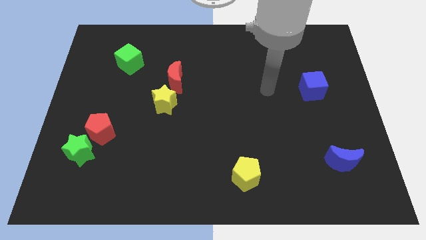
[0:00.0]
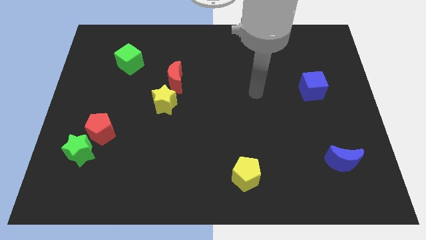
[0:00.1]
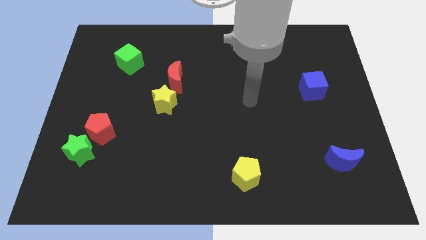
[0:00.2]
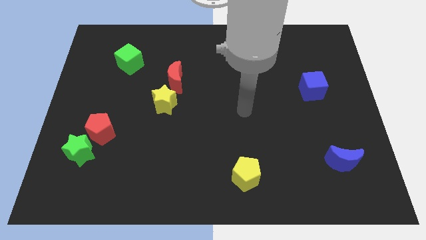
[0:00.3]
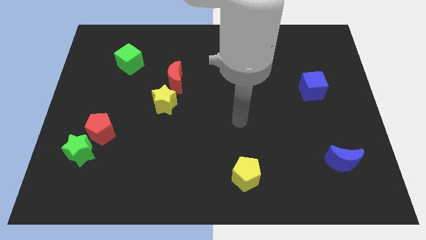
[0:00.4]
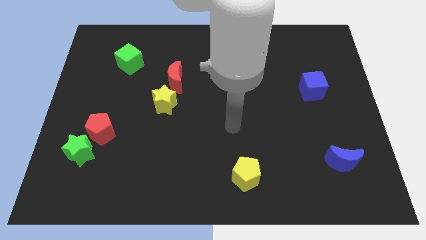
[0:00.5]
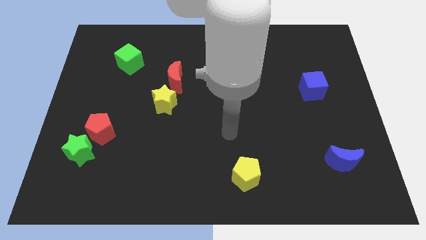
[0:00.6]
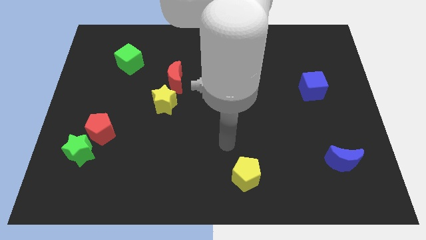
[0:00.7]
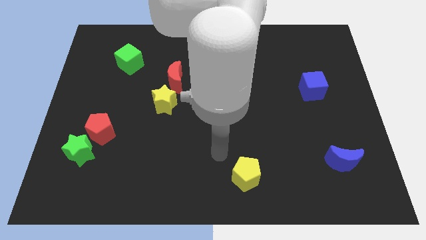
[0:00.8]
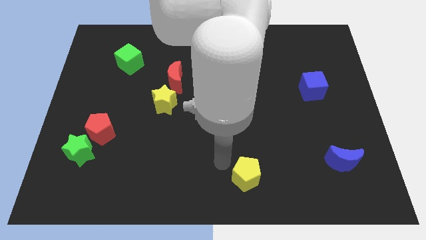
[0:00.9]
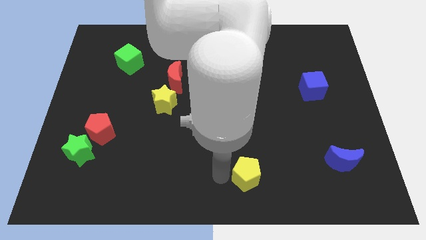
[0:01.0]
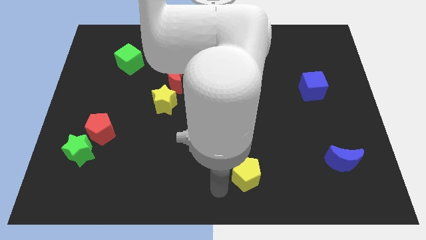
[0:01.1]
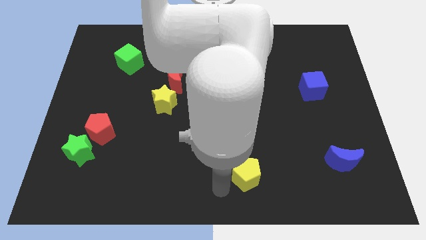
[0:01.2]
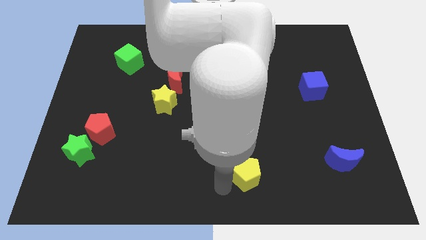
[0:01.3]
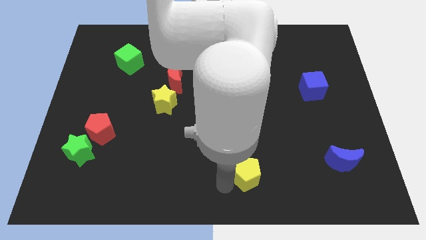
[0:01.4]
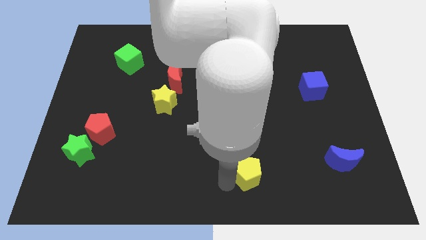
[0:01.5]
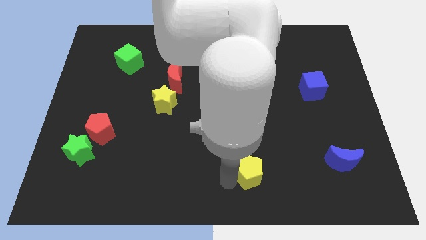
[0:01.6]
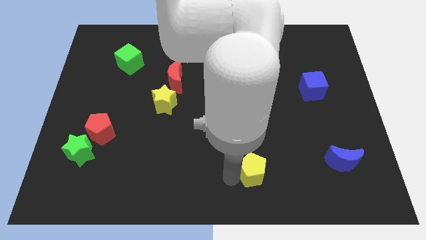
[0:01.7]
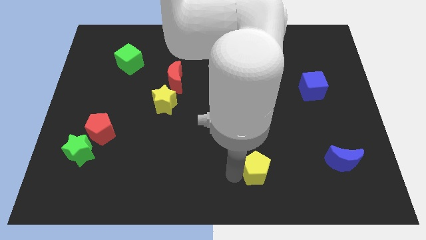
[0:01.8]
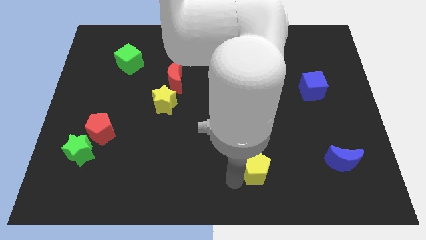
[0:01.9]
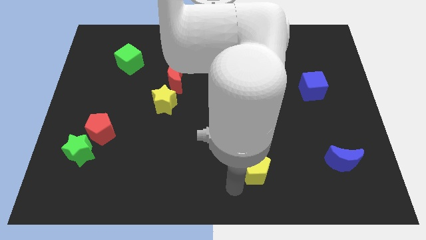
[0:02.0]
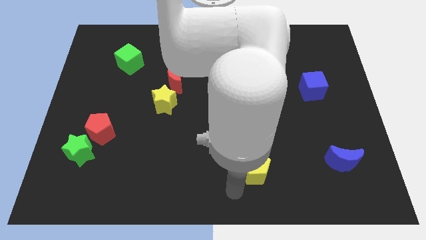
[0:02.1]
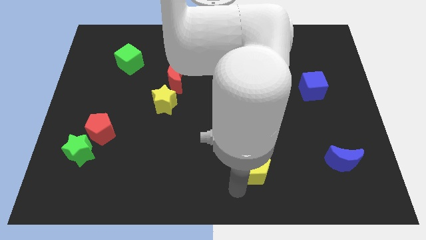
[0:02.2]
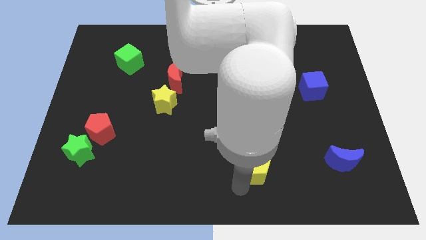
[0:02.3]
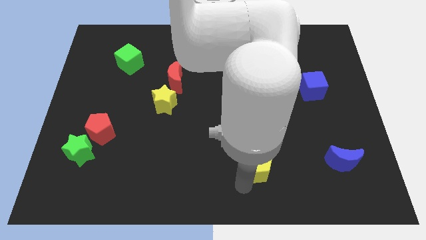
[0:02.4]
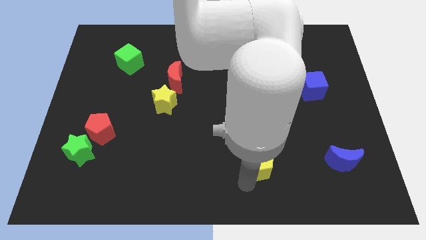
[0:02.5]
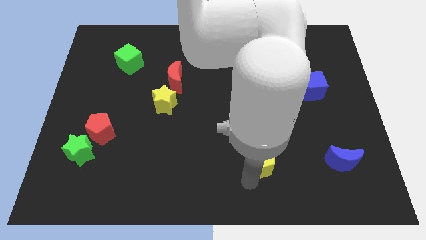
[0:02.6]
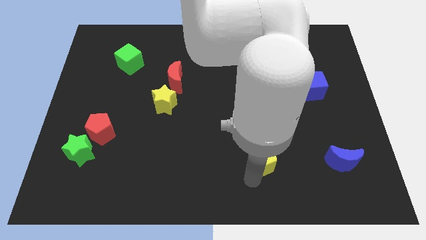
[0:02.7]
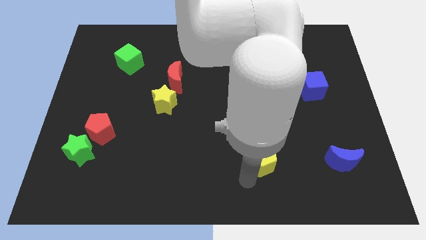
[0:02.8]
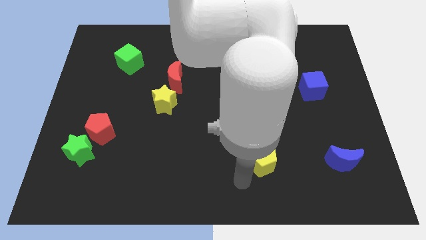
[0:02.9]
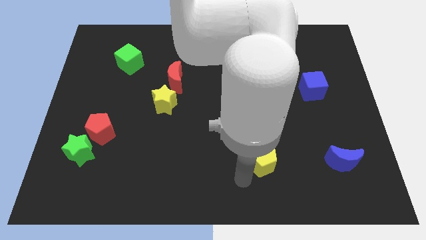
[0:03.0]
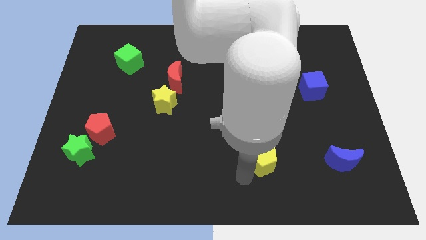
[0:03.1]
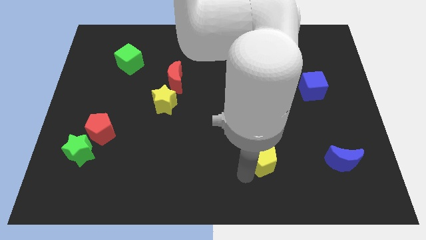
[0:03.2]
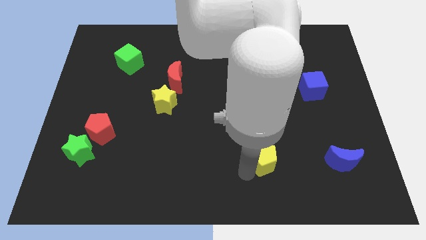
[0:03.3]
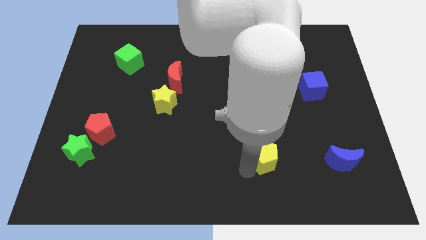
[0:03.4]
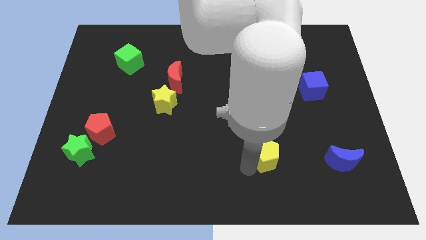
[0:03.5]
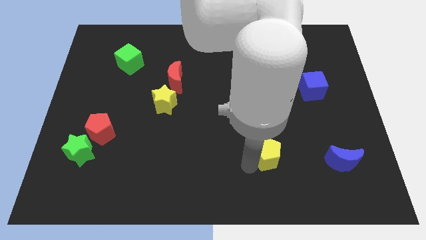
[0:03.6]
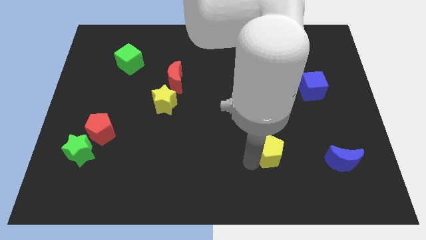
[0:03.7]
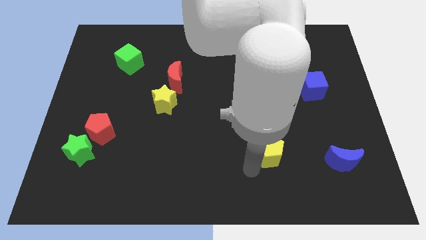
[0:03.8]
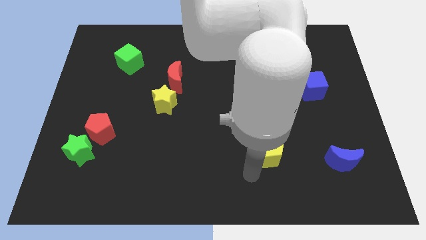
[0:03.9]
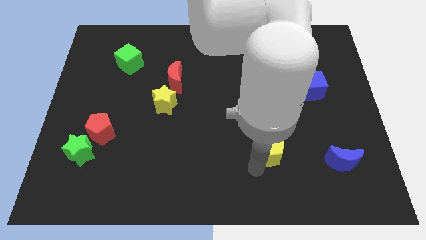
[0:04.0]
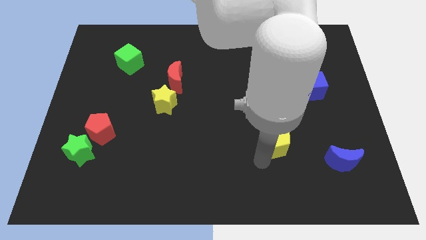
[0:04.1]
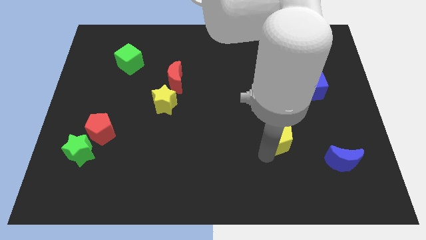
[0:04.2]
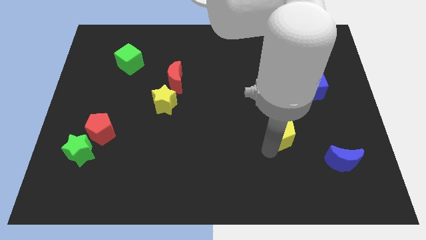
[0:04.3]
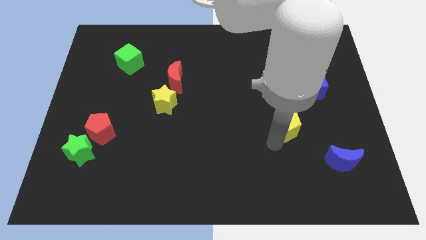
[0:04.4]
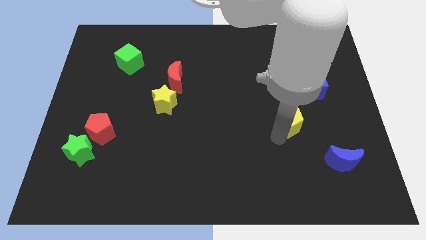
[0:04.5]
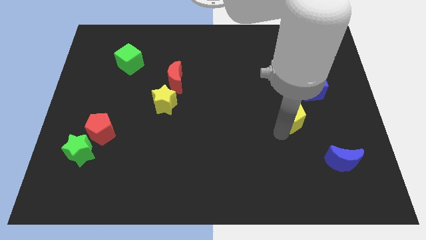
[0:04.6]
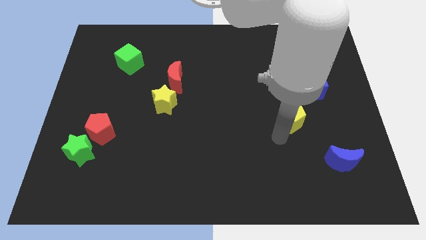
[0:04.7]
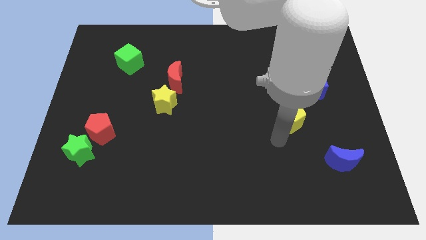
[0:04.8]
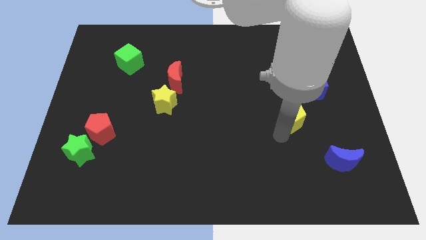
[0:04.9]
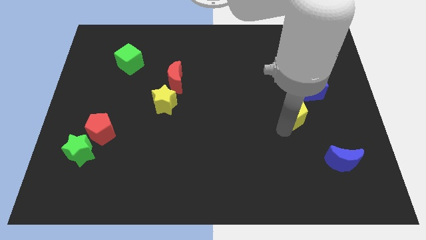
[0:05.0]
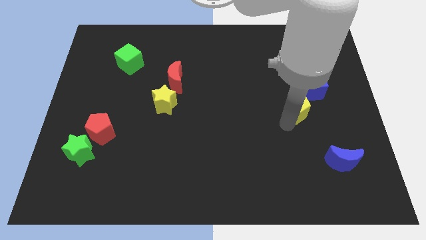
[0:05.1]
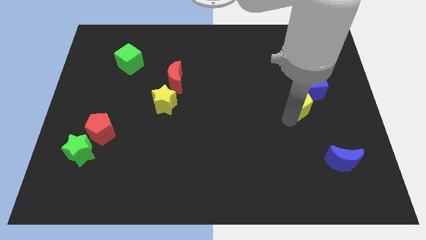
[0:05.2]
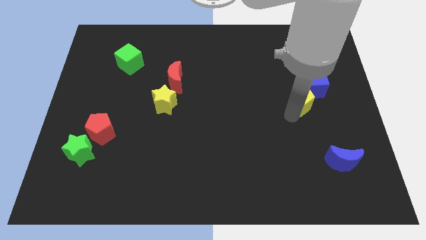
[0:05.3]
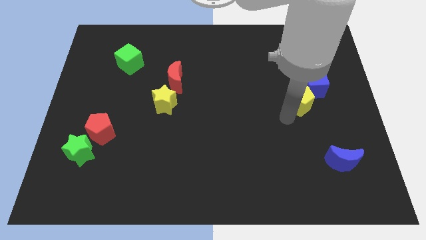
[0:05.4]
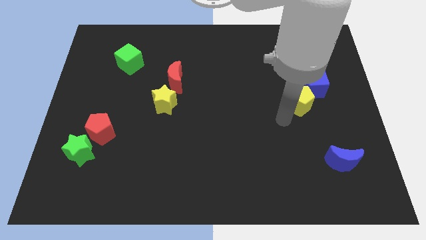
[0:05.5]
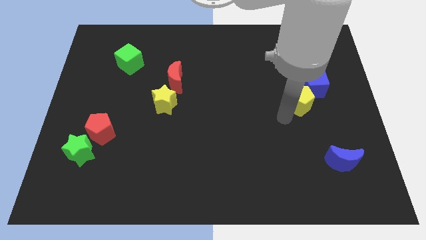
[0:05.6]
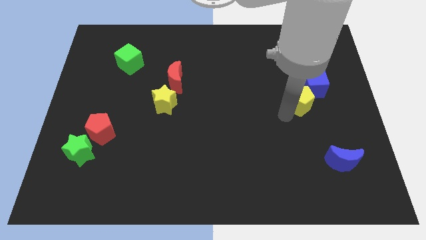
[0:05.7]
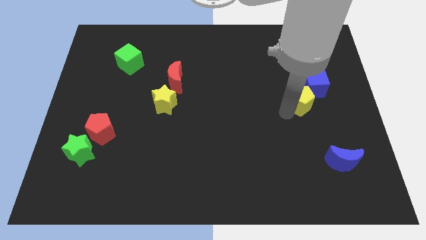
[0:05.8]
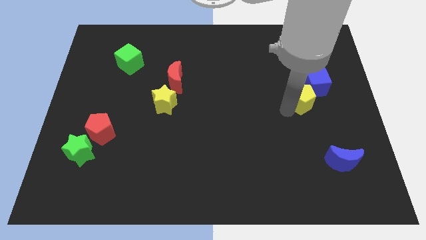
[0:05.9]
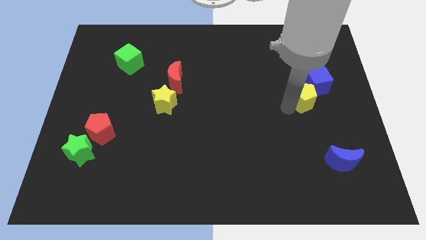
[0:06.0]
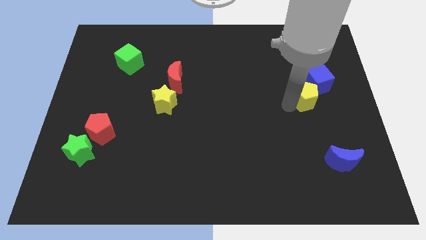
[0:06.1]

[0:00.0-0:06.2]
push the yellow pentagon to the blue cube

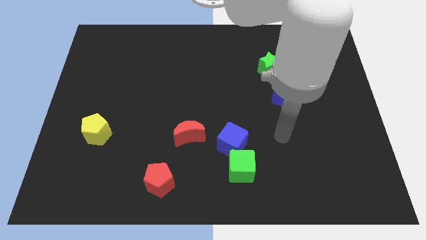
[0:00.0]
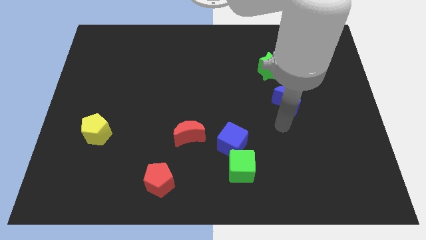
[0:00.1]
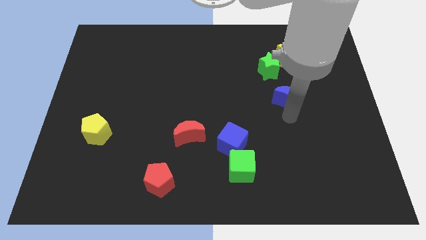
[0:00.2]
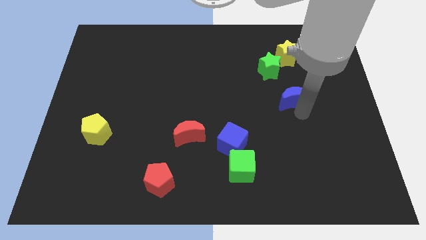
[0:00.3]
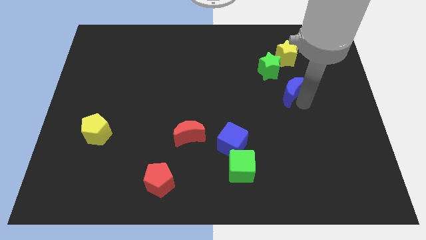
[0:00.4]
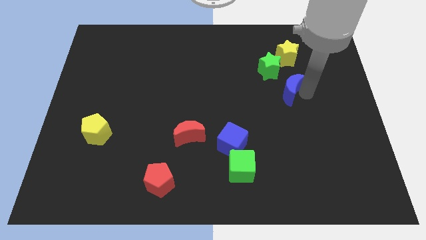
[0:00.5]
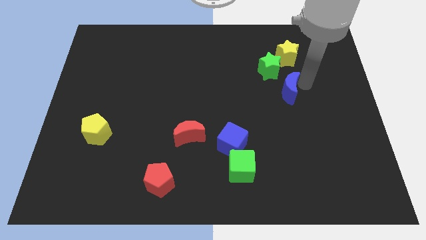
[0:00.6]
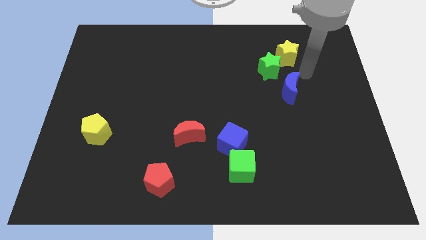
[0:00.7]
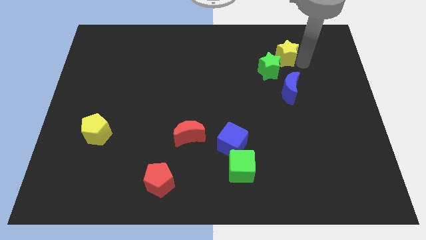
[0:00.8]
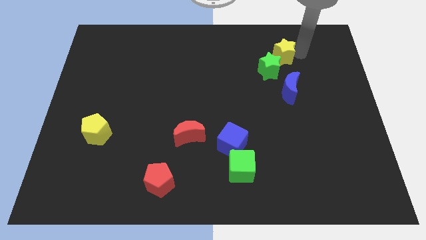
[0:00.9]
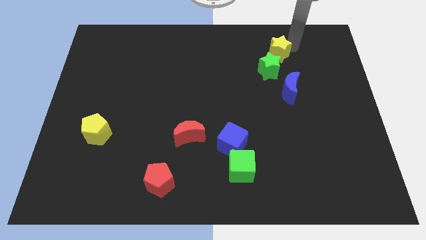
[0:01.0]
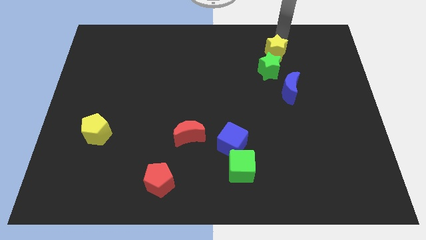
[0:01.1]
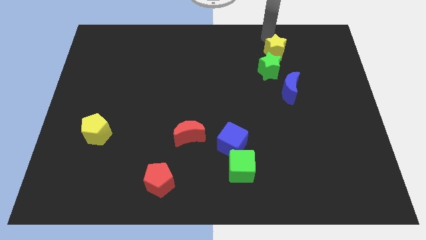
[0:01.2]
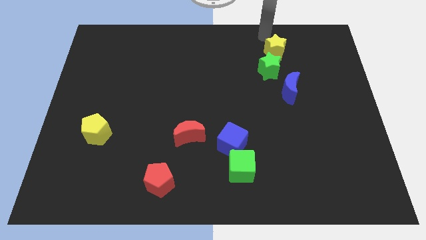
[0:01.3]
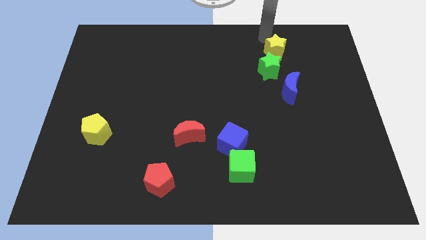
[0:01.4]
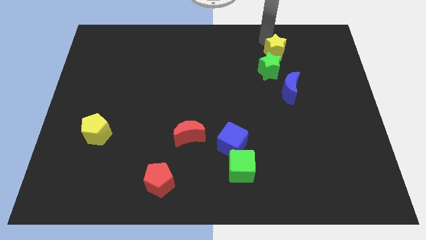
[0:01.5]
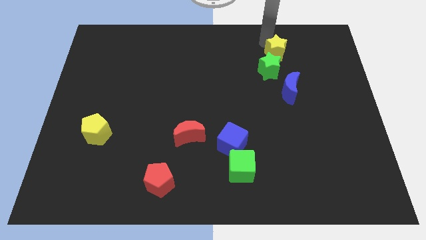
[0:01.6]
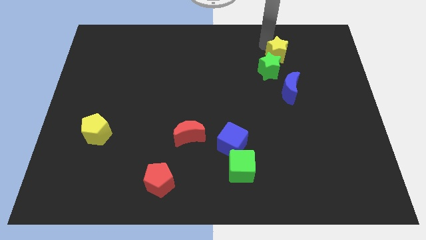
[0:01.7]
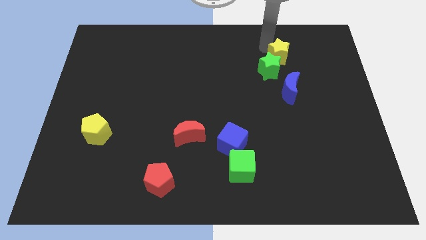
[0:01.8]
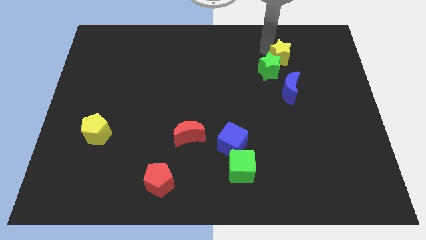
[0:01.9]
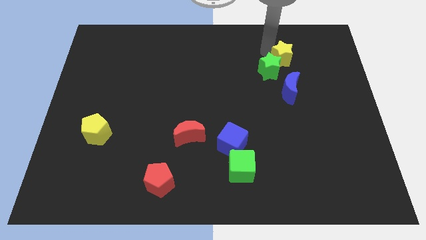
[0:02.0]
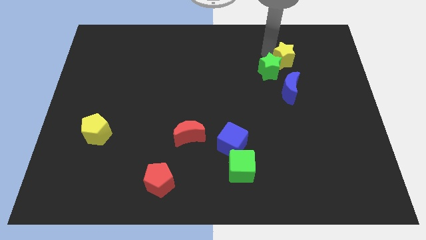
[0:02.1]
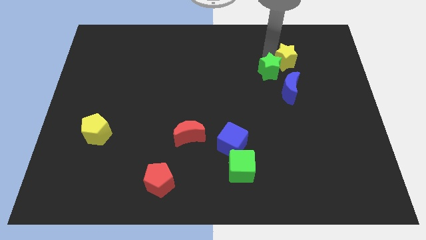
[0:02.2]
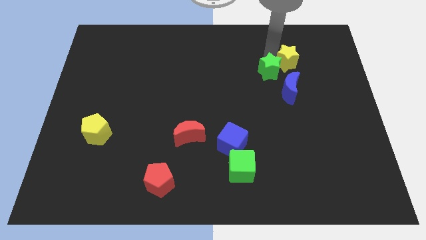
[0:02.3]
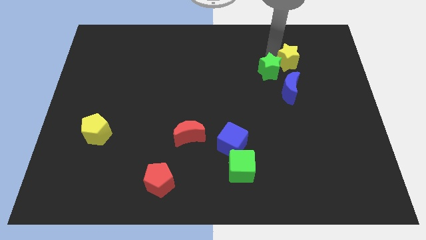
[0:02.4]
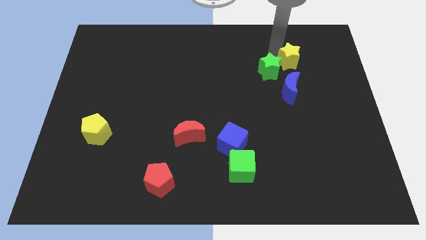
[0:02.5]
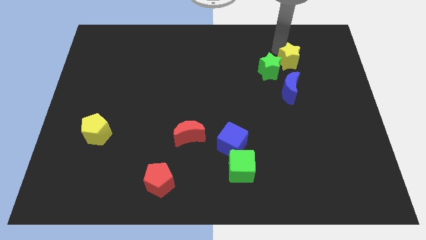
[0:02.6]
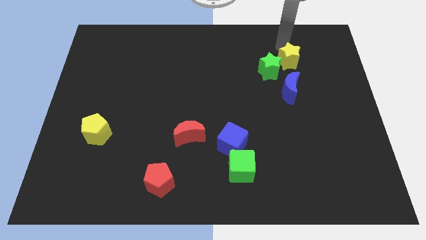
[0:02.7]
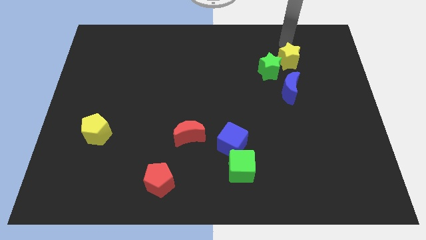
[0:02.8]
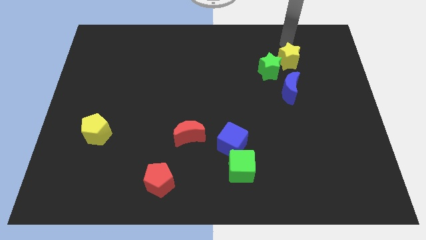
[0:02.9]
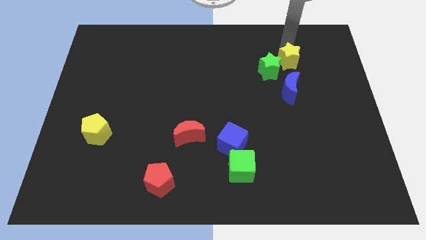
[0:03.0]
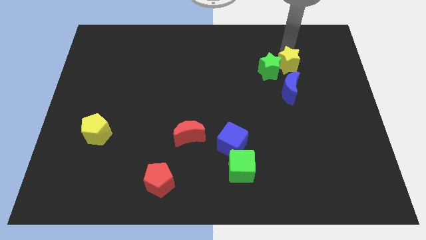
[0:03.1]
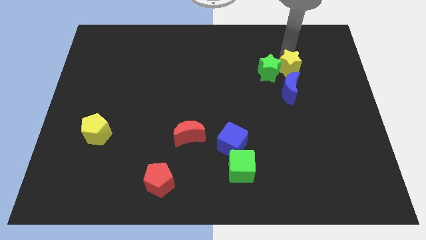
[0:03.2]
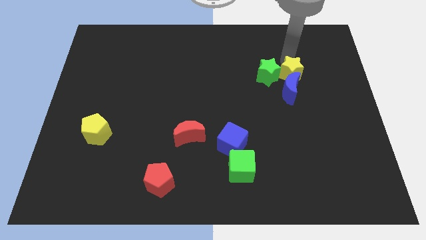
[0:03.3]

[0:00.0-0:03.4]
move the yellow star towards the blue moon
